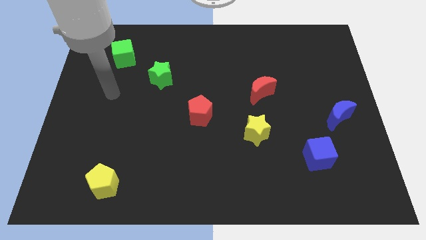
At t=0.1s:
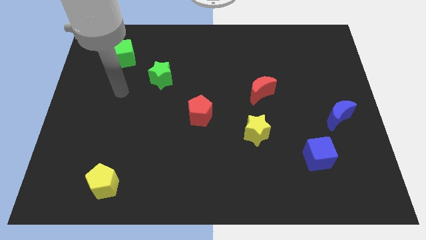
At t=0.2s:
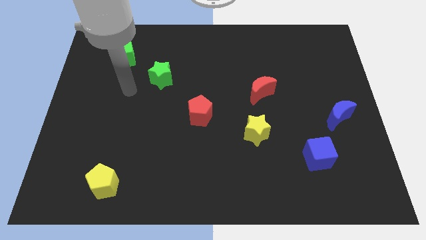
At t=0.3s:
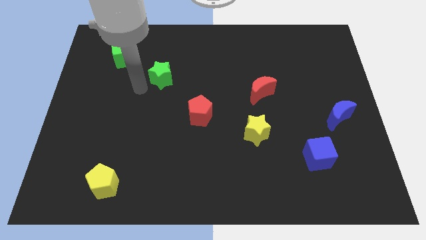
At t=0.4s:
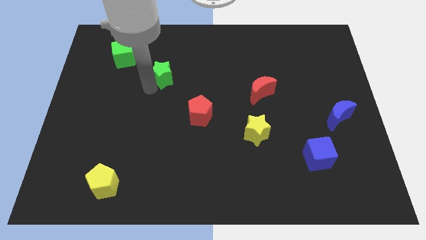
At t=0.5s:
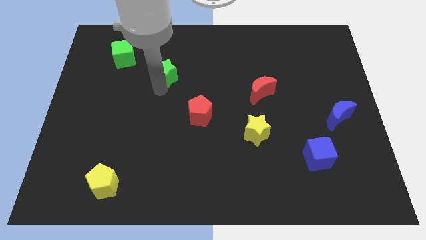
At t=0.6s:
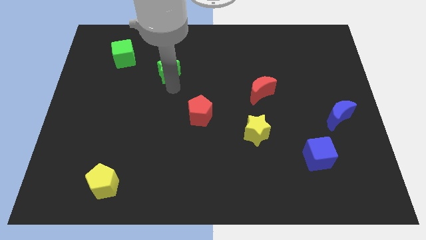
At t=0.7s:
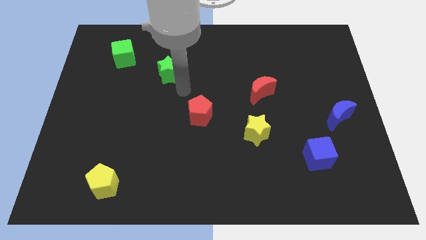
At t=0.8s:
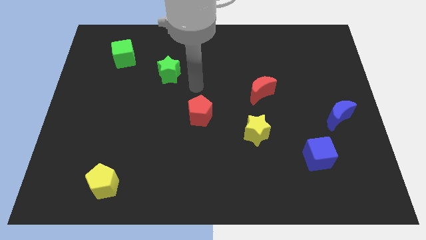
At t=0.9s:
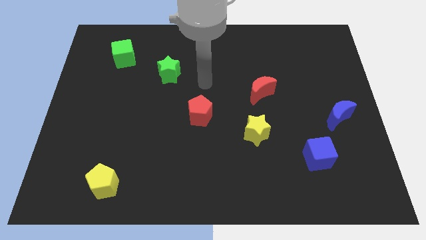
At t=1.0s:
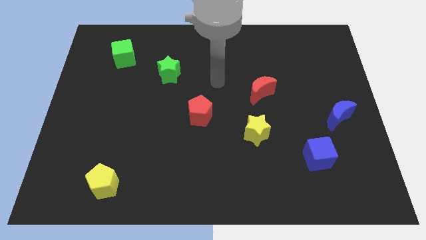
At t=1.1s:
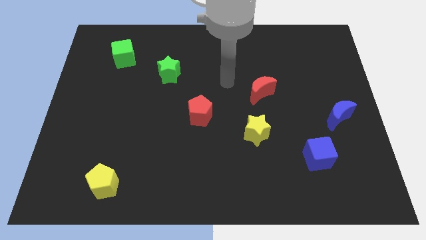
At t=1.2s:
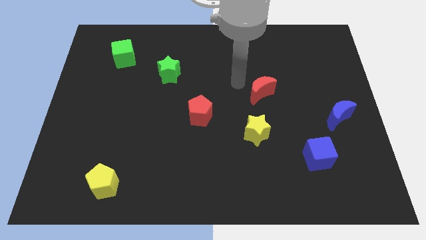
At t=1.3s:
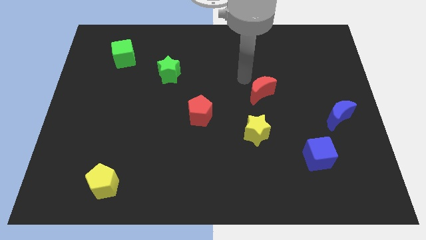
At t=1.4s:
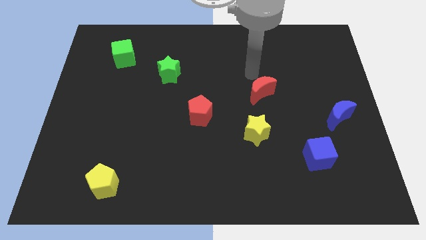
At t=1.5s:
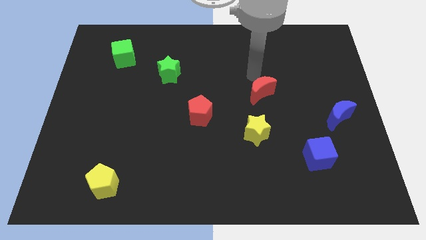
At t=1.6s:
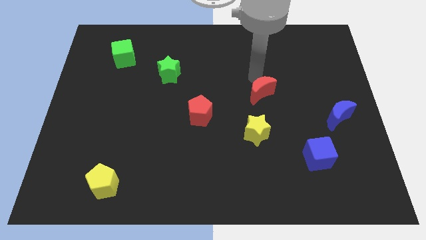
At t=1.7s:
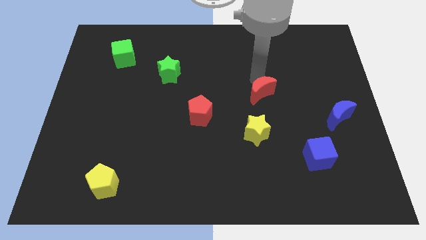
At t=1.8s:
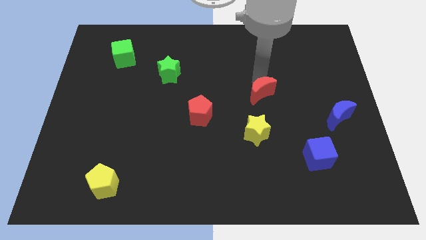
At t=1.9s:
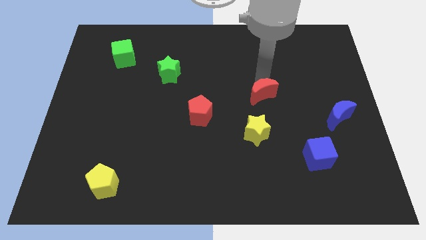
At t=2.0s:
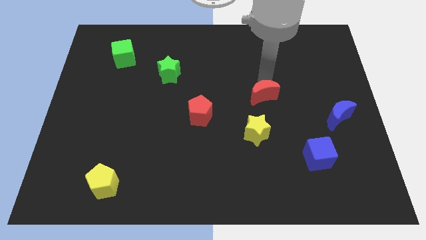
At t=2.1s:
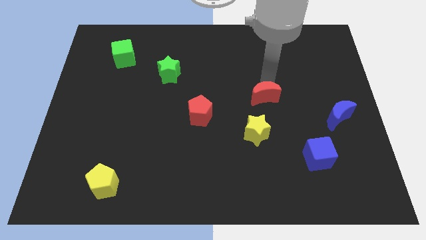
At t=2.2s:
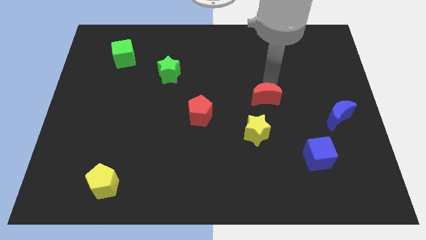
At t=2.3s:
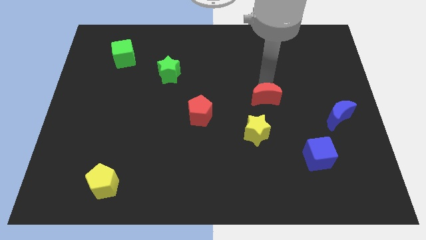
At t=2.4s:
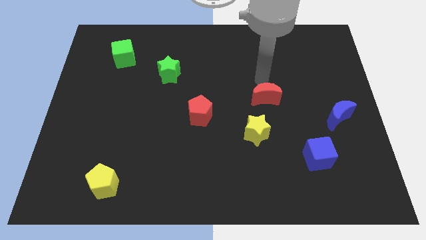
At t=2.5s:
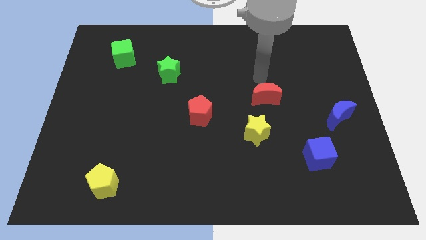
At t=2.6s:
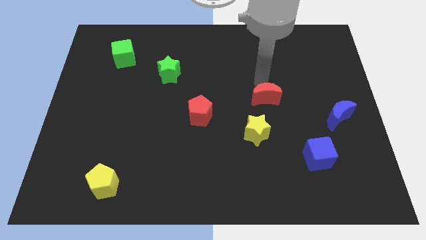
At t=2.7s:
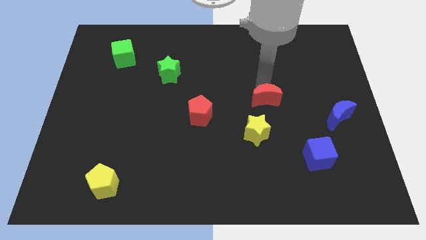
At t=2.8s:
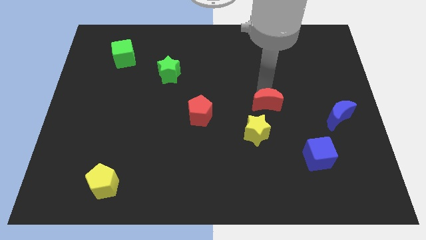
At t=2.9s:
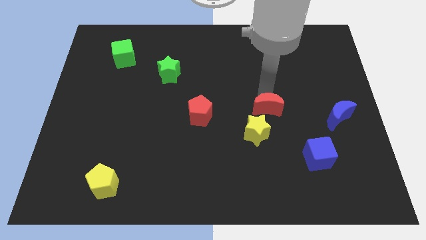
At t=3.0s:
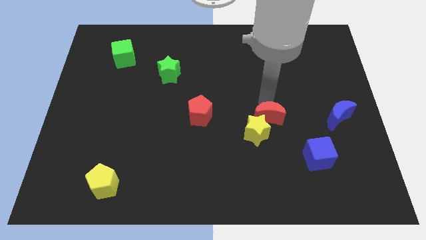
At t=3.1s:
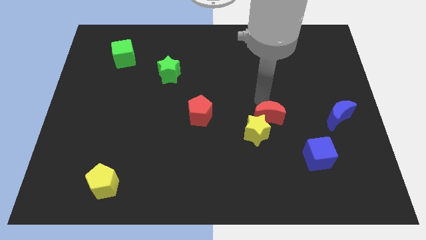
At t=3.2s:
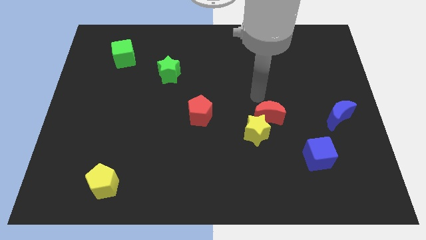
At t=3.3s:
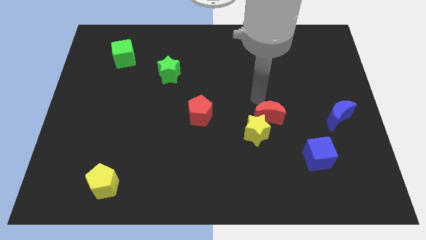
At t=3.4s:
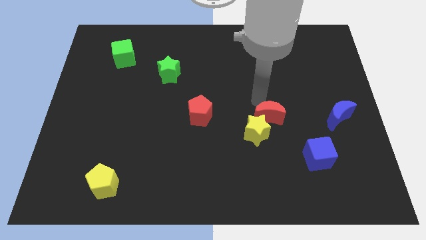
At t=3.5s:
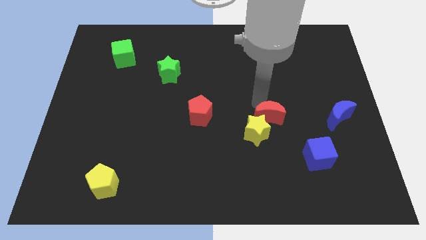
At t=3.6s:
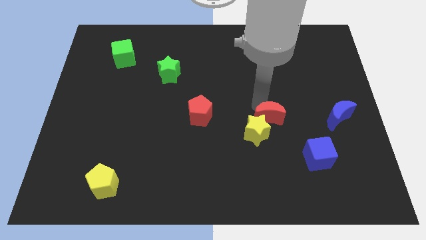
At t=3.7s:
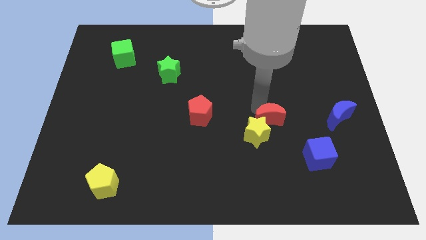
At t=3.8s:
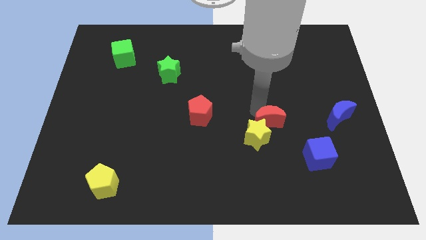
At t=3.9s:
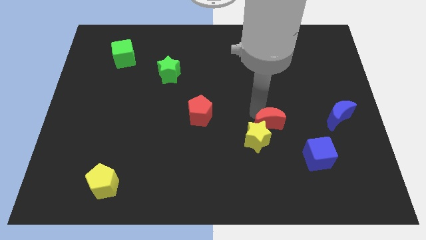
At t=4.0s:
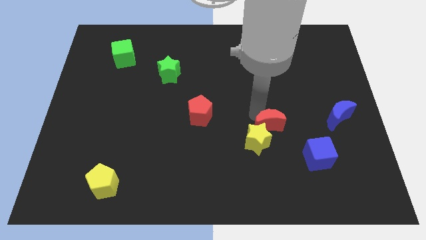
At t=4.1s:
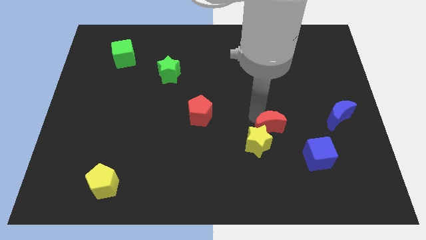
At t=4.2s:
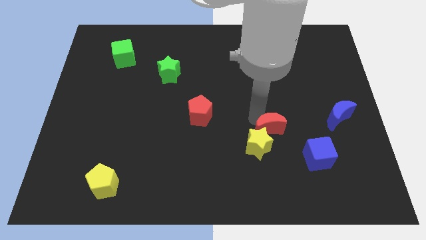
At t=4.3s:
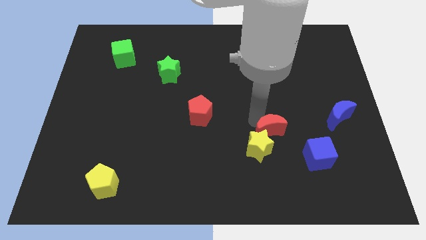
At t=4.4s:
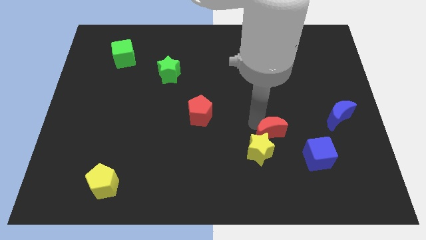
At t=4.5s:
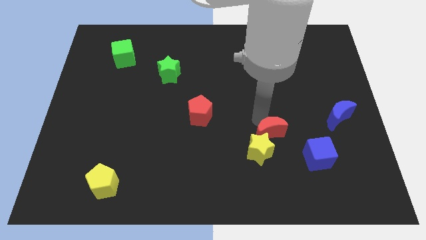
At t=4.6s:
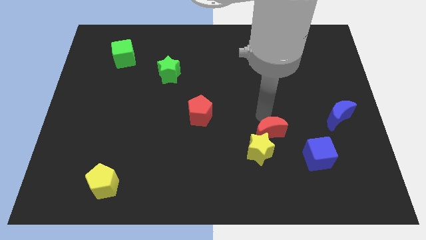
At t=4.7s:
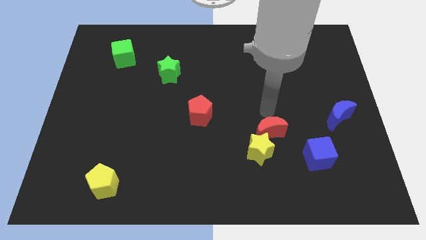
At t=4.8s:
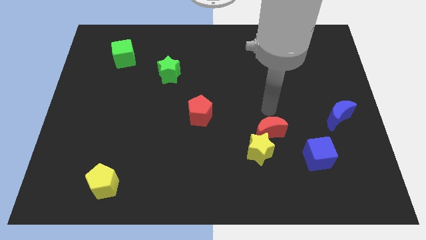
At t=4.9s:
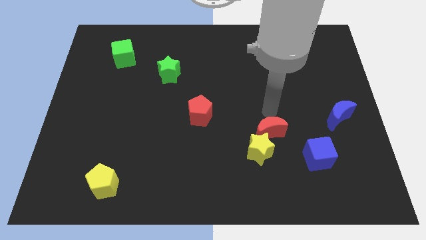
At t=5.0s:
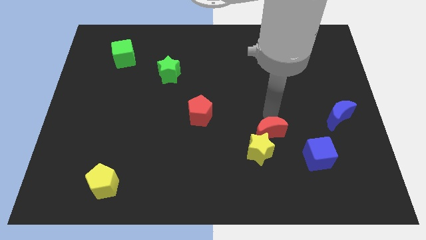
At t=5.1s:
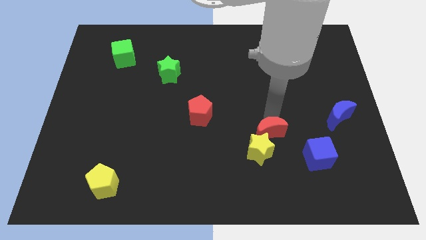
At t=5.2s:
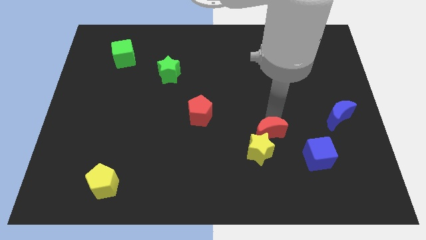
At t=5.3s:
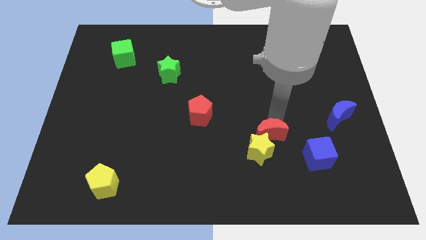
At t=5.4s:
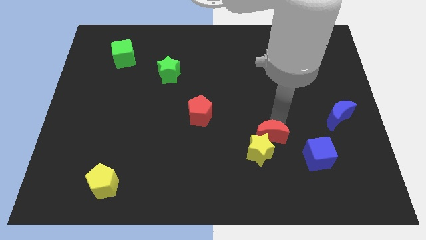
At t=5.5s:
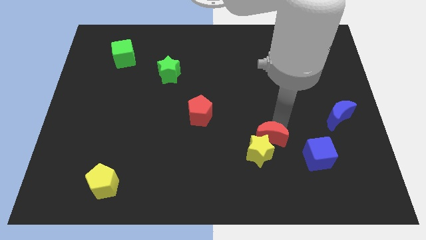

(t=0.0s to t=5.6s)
move the red moon just left of the blue cube

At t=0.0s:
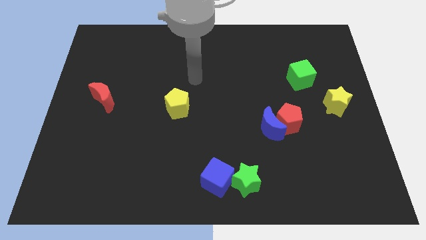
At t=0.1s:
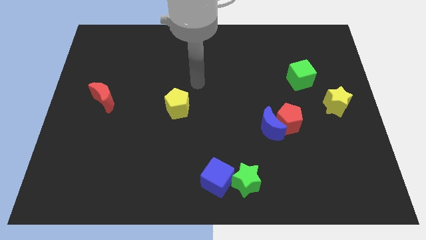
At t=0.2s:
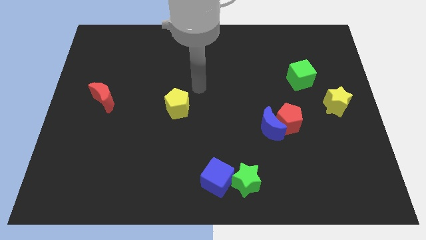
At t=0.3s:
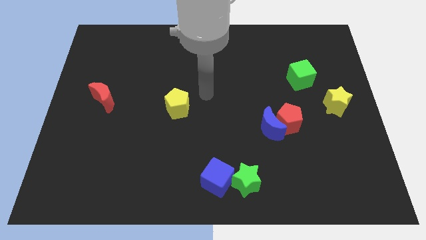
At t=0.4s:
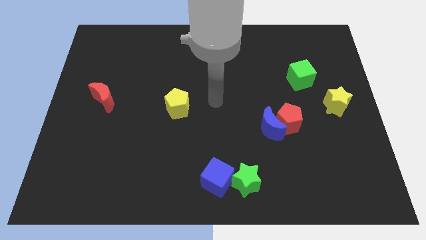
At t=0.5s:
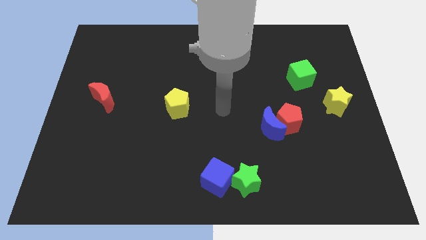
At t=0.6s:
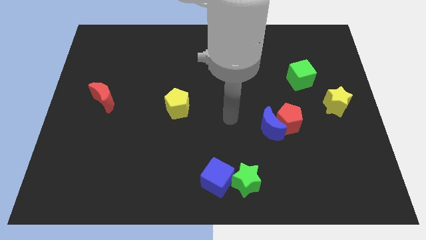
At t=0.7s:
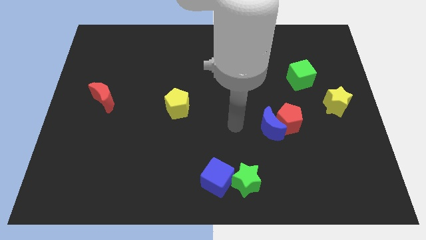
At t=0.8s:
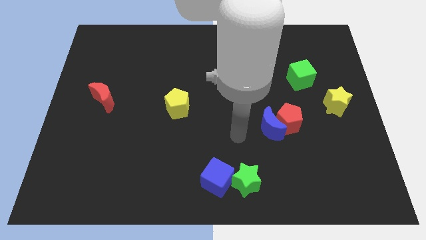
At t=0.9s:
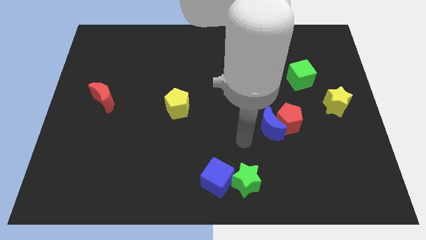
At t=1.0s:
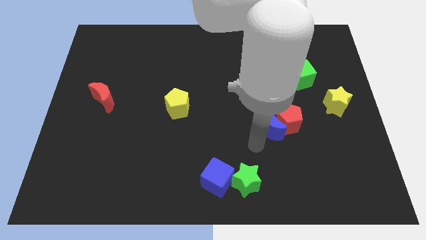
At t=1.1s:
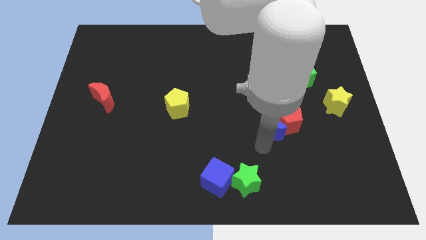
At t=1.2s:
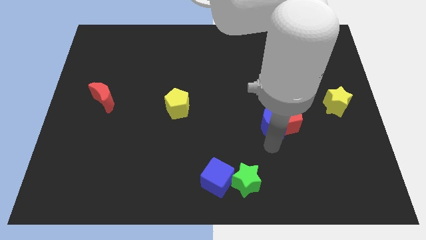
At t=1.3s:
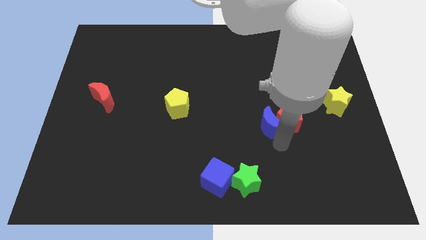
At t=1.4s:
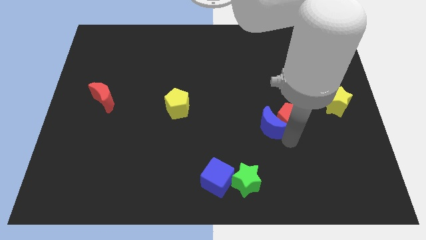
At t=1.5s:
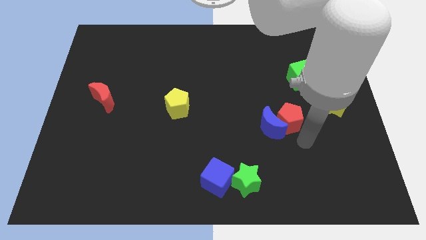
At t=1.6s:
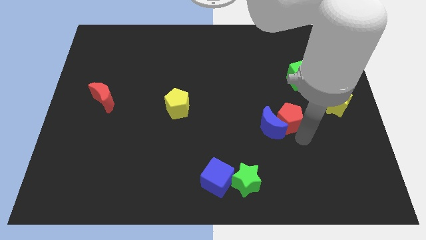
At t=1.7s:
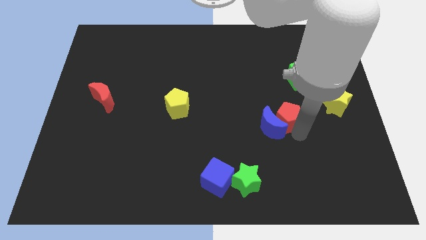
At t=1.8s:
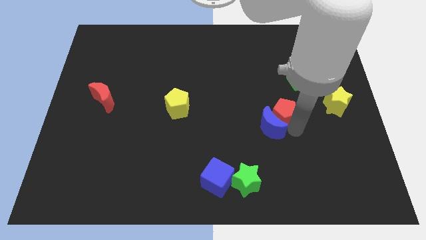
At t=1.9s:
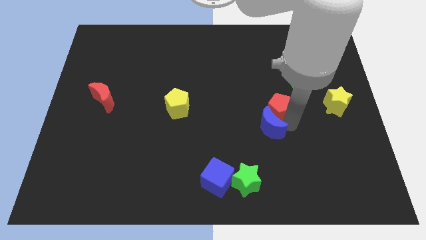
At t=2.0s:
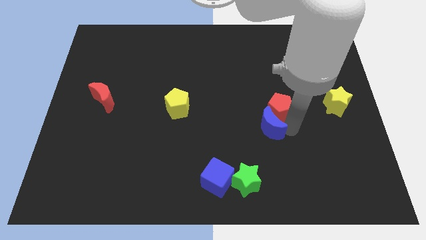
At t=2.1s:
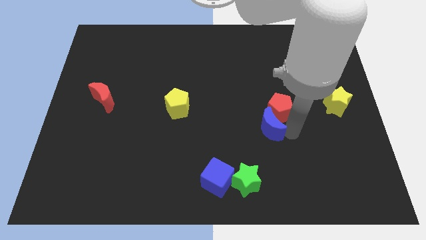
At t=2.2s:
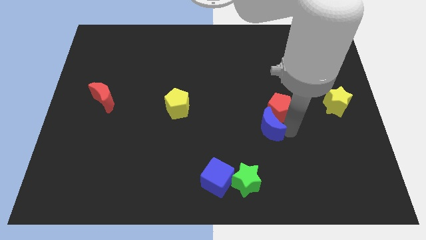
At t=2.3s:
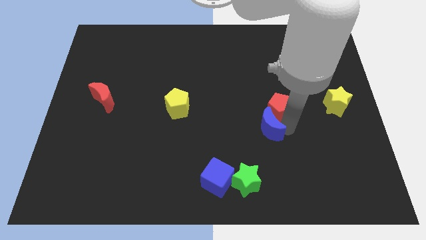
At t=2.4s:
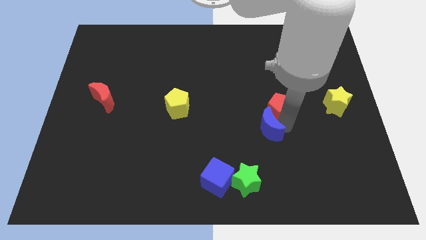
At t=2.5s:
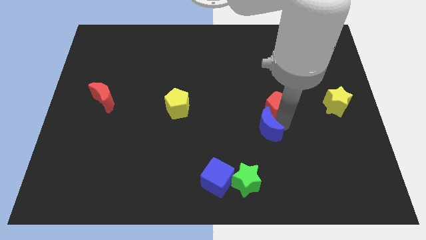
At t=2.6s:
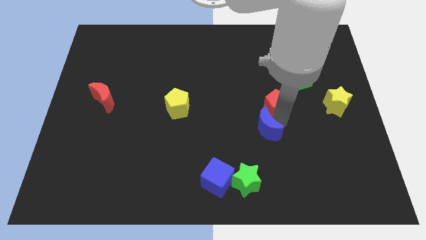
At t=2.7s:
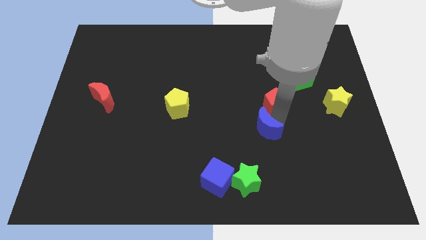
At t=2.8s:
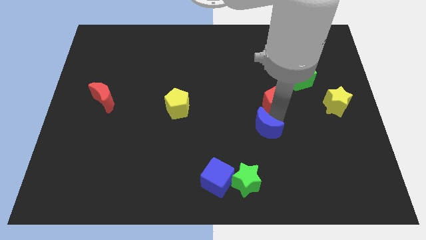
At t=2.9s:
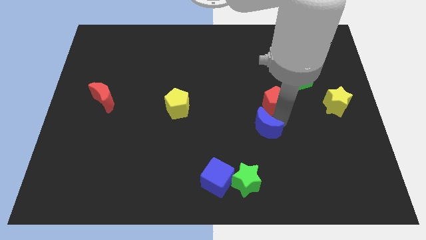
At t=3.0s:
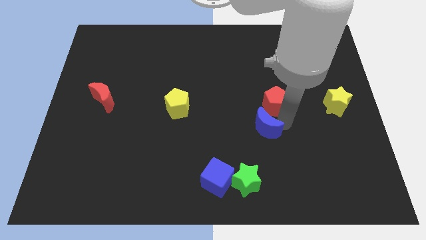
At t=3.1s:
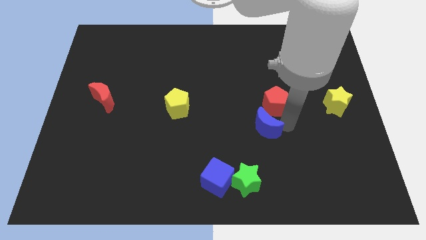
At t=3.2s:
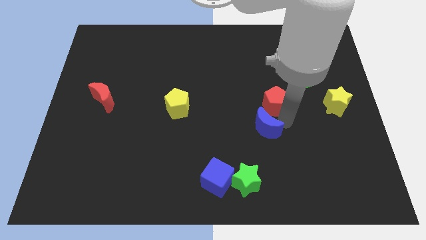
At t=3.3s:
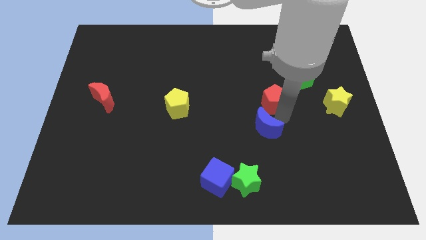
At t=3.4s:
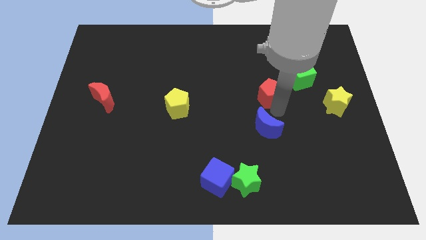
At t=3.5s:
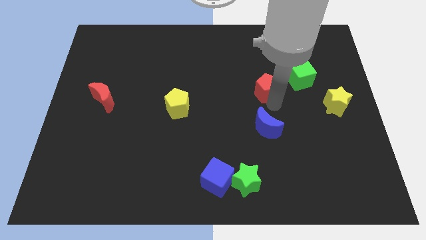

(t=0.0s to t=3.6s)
slide the red pentagon just left of the green cube
